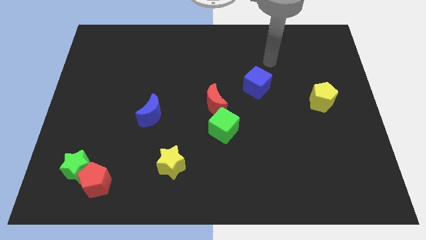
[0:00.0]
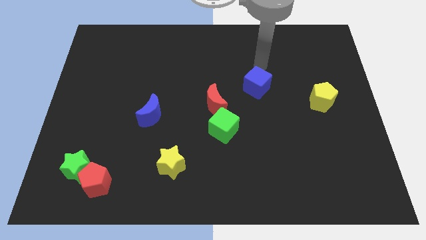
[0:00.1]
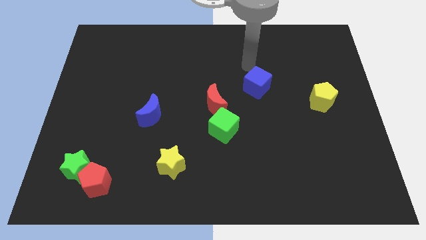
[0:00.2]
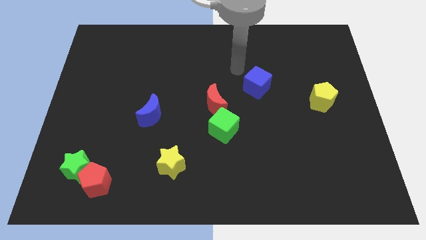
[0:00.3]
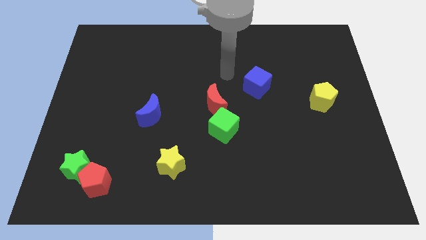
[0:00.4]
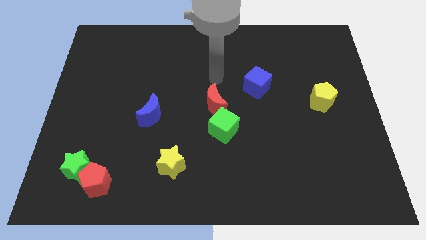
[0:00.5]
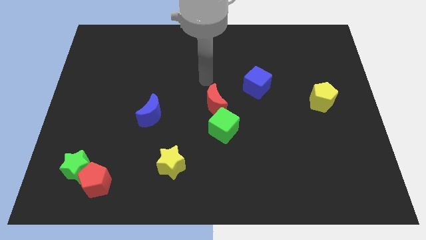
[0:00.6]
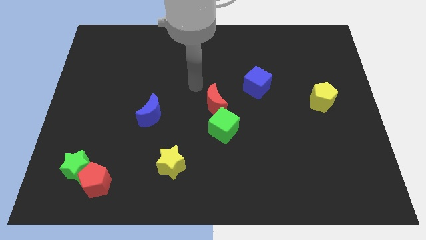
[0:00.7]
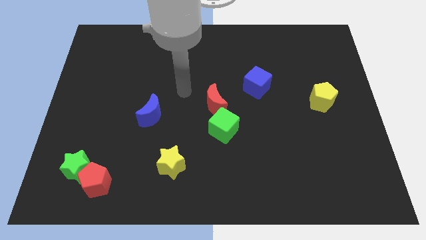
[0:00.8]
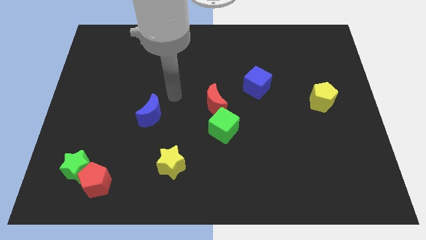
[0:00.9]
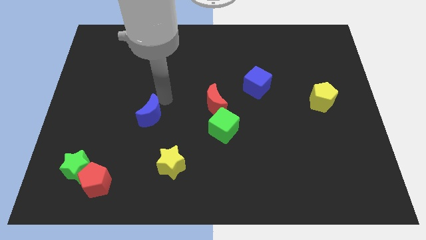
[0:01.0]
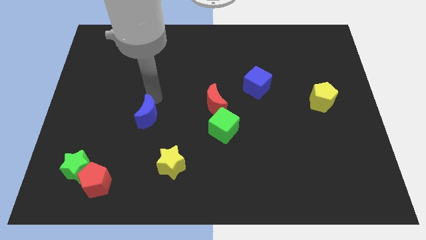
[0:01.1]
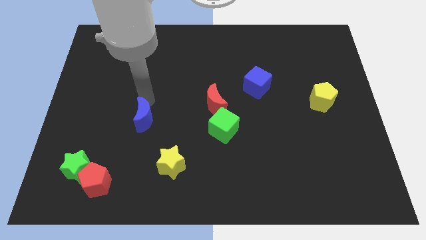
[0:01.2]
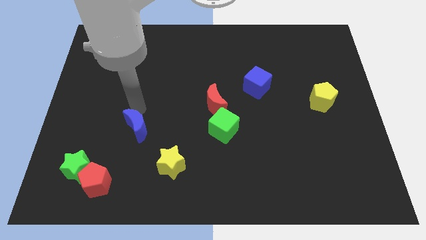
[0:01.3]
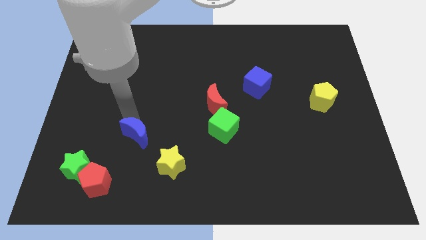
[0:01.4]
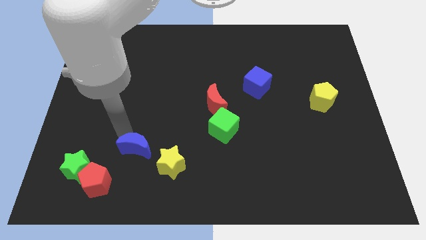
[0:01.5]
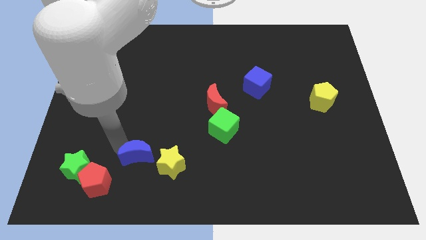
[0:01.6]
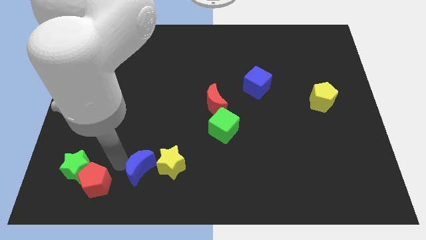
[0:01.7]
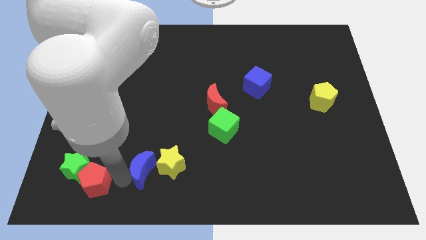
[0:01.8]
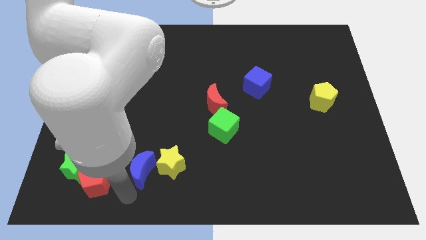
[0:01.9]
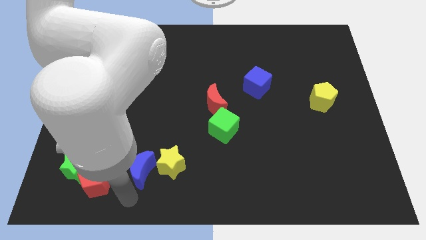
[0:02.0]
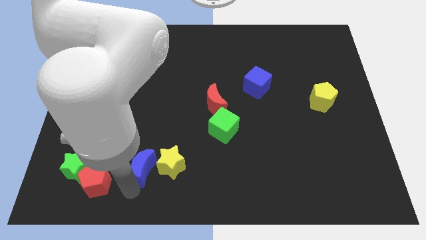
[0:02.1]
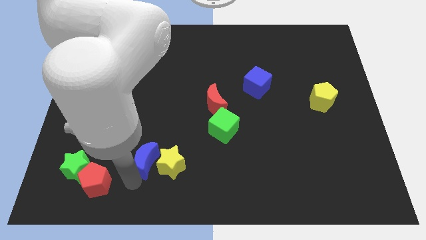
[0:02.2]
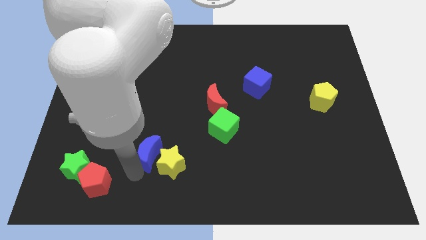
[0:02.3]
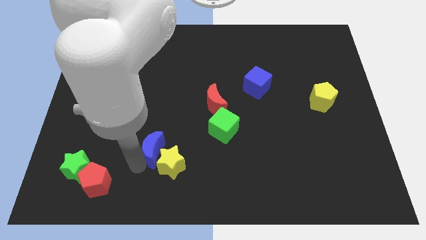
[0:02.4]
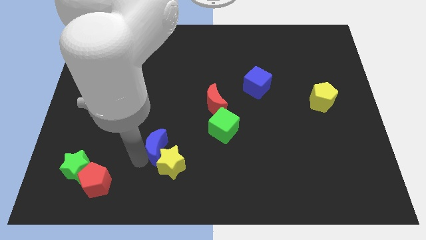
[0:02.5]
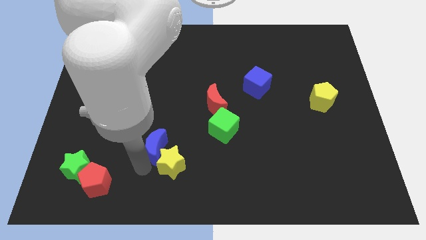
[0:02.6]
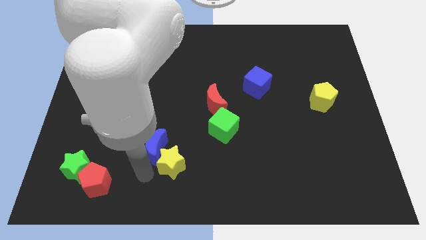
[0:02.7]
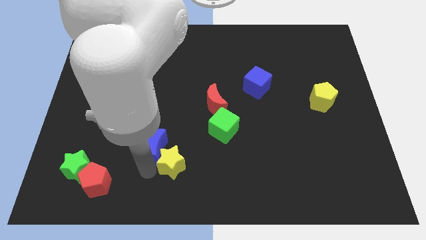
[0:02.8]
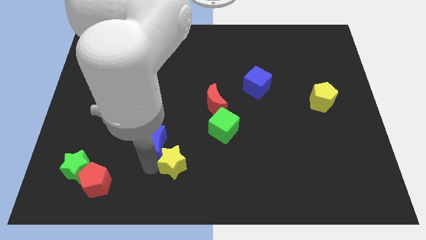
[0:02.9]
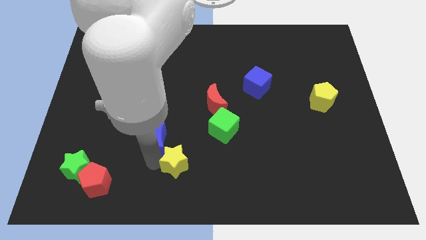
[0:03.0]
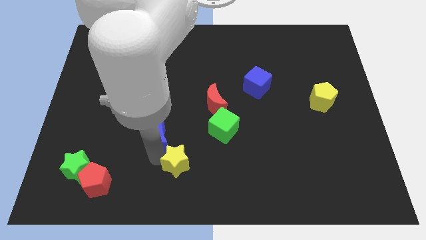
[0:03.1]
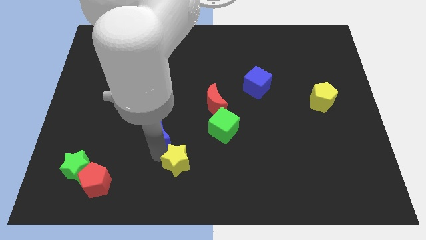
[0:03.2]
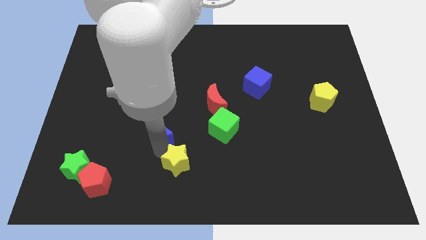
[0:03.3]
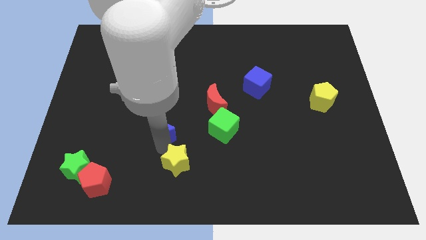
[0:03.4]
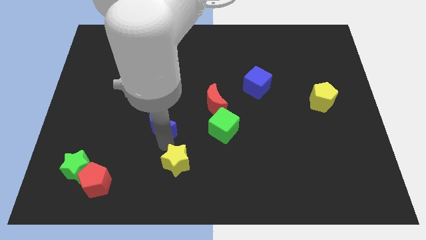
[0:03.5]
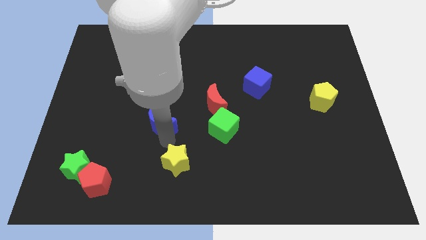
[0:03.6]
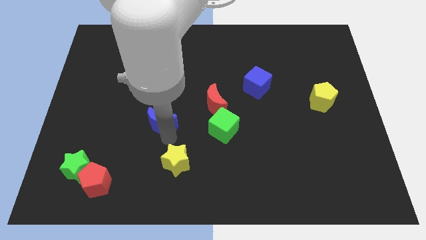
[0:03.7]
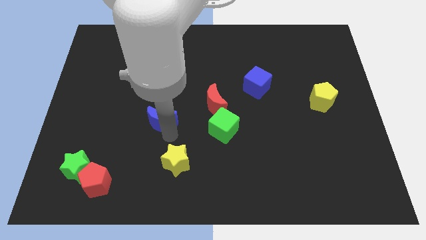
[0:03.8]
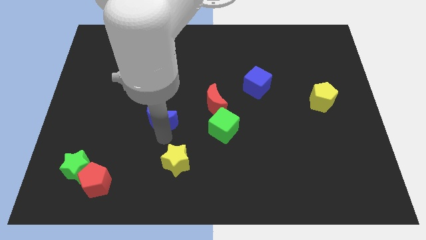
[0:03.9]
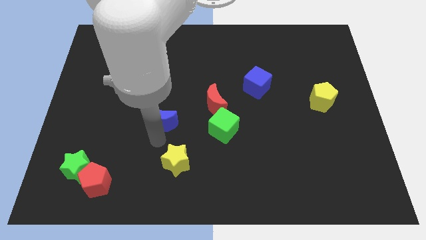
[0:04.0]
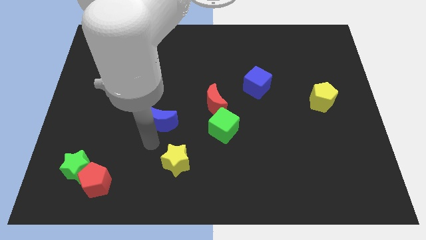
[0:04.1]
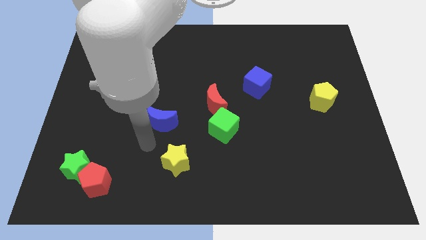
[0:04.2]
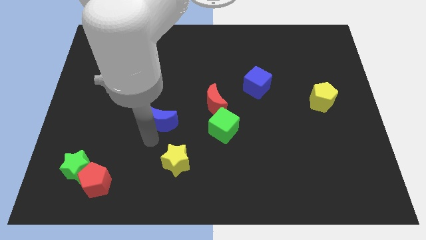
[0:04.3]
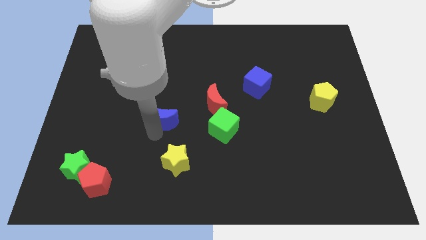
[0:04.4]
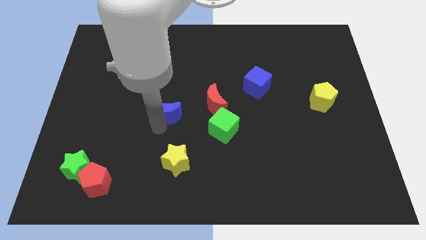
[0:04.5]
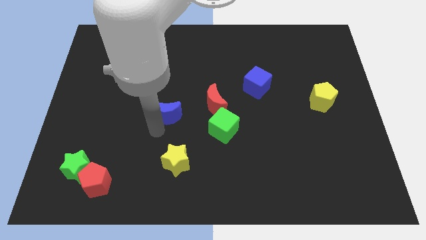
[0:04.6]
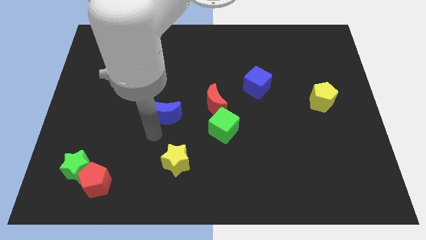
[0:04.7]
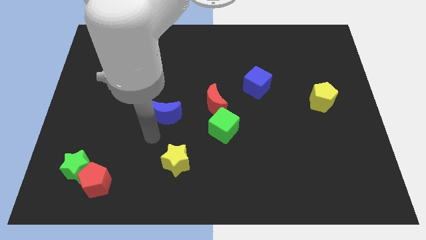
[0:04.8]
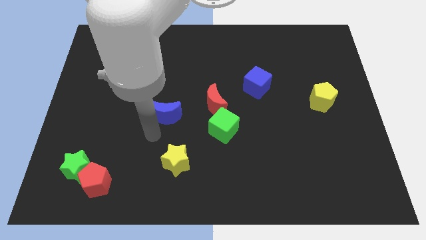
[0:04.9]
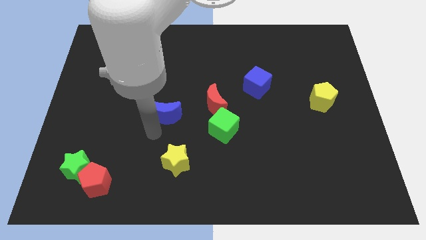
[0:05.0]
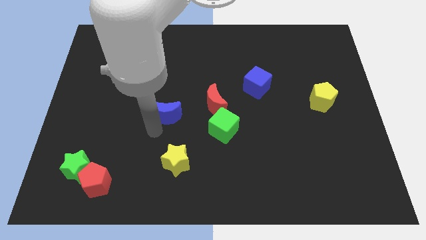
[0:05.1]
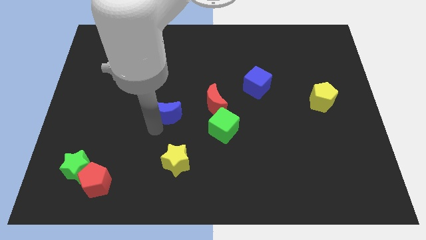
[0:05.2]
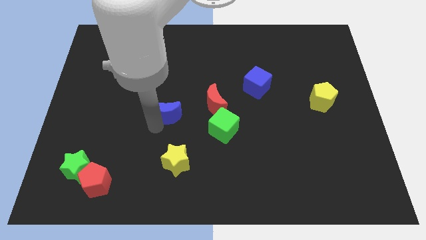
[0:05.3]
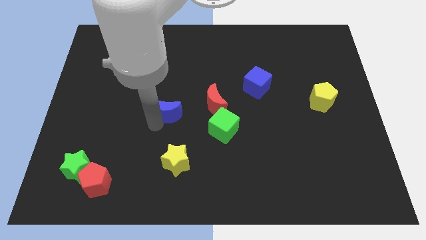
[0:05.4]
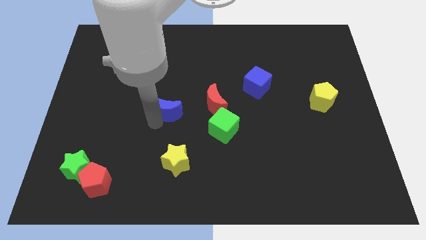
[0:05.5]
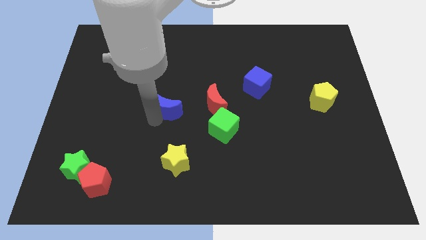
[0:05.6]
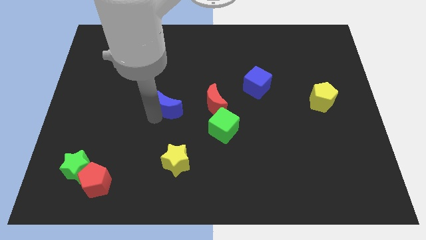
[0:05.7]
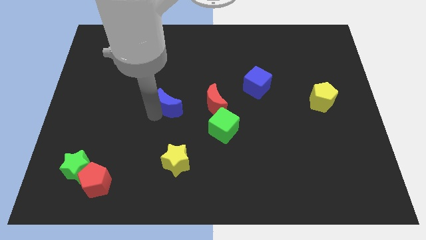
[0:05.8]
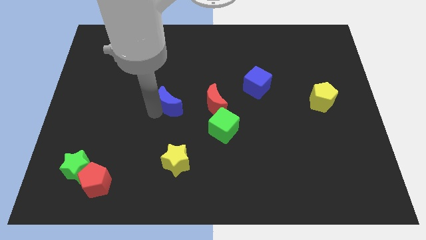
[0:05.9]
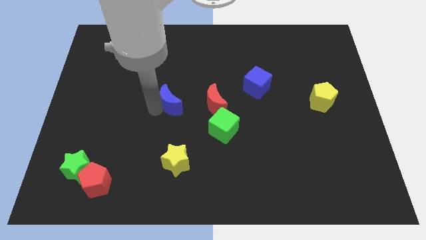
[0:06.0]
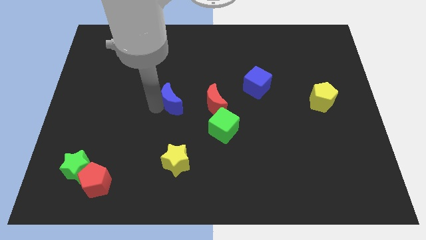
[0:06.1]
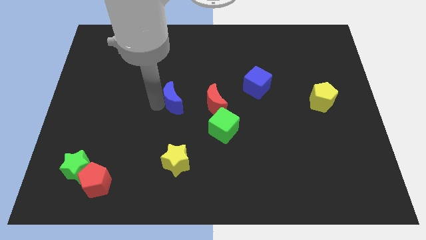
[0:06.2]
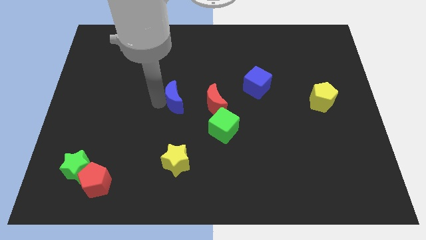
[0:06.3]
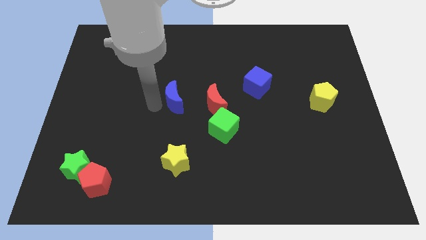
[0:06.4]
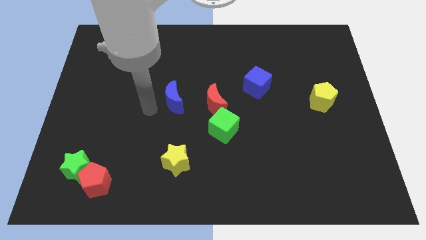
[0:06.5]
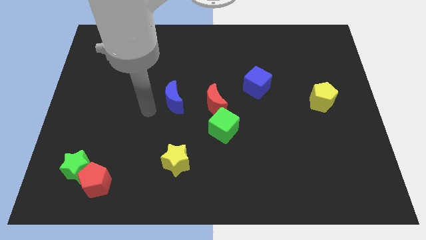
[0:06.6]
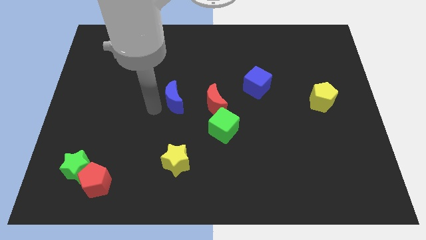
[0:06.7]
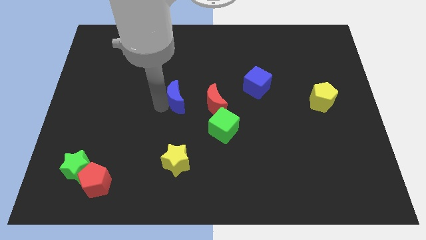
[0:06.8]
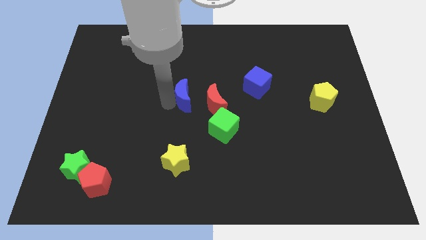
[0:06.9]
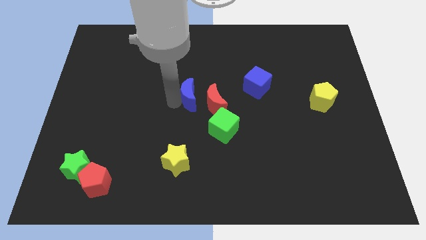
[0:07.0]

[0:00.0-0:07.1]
slide the blue moon a bit to the right

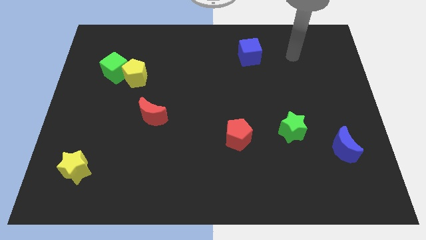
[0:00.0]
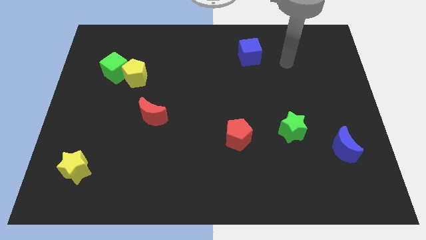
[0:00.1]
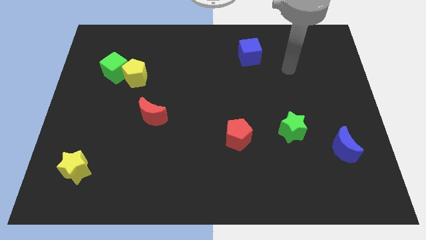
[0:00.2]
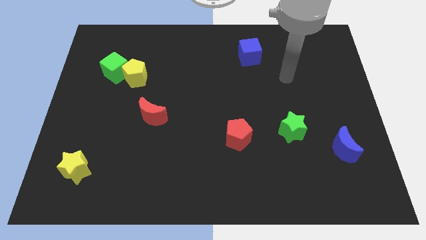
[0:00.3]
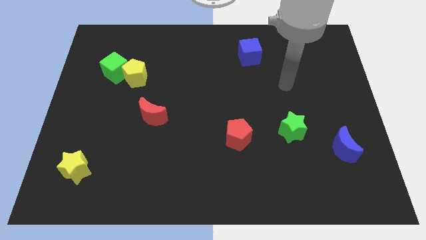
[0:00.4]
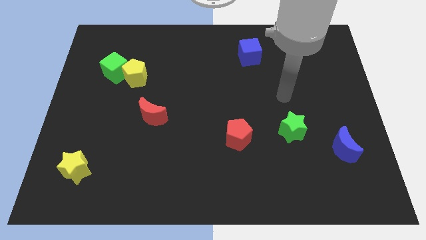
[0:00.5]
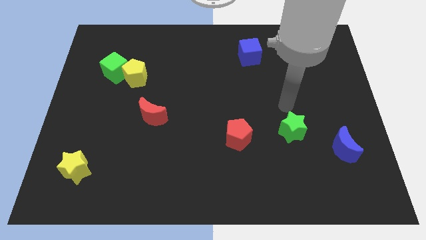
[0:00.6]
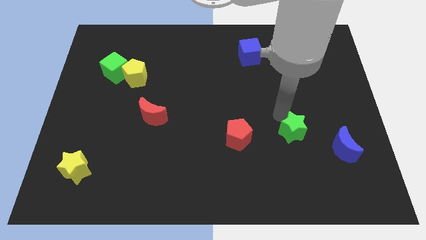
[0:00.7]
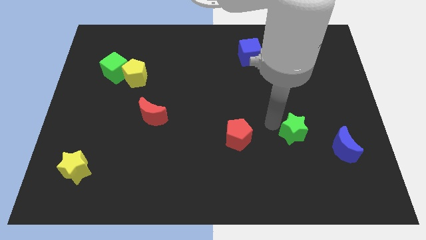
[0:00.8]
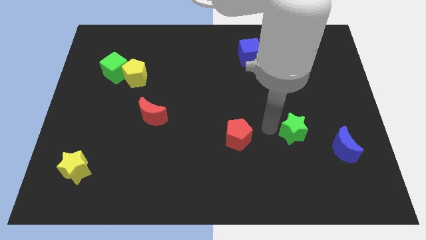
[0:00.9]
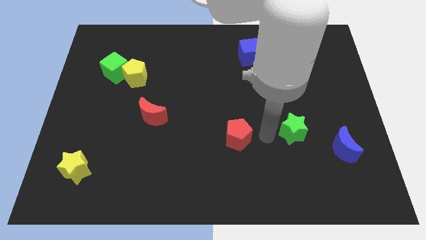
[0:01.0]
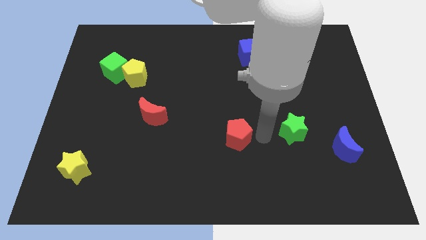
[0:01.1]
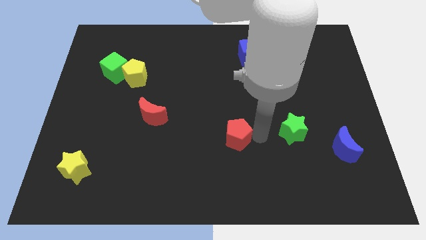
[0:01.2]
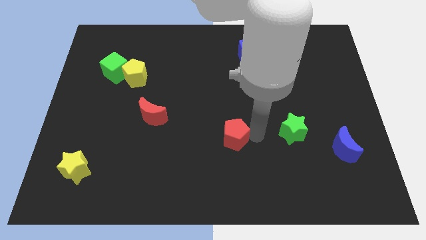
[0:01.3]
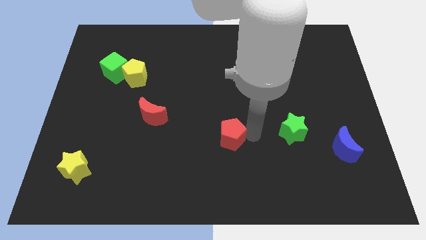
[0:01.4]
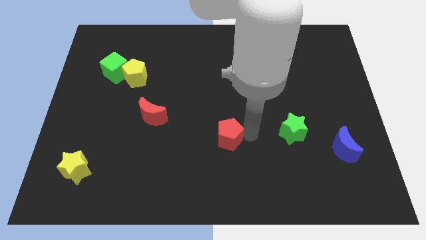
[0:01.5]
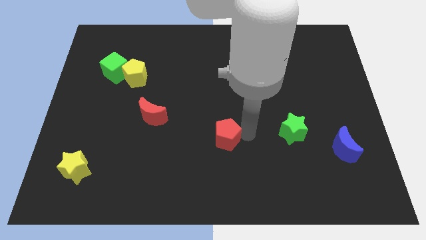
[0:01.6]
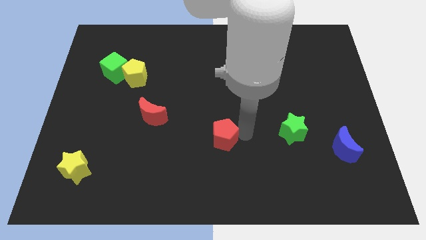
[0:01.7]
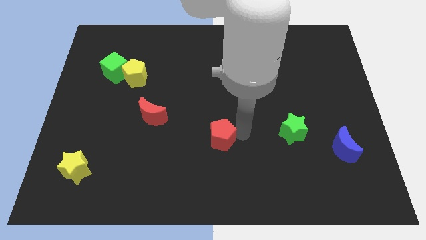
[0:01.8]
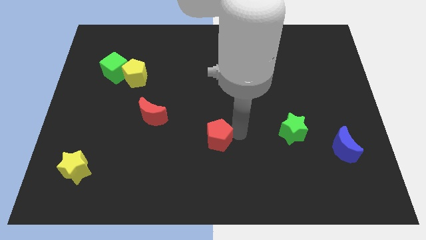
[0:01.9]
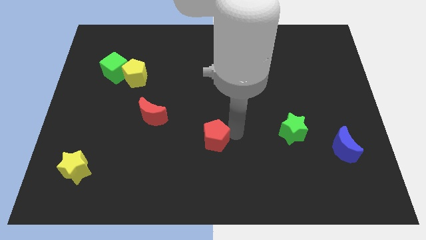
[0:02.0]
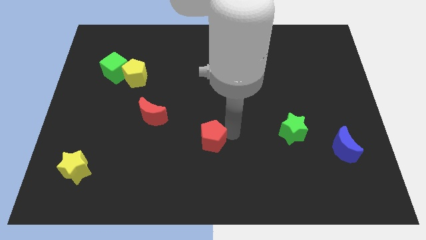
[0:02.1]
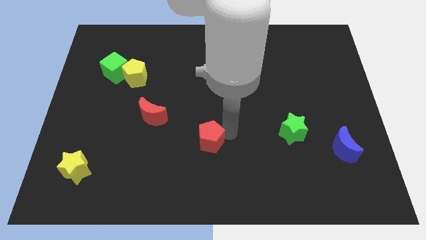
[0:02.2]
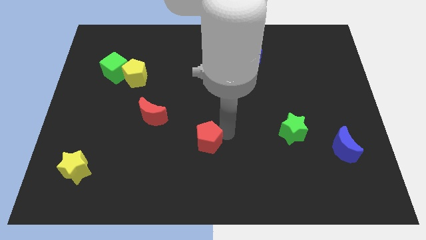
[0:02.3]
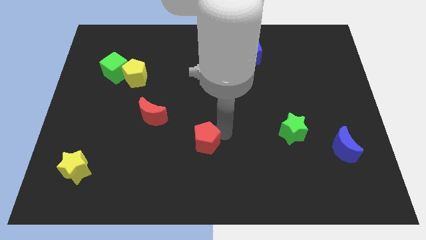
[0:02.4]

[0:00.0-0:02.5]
slightly move the red pentagon left
